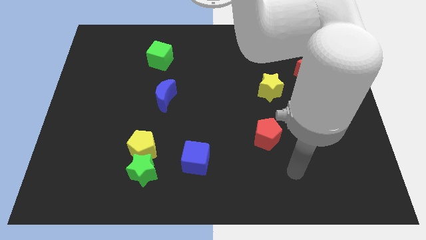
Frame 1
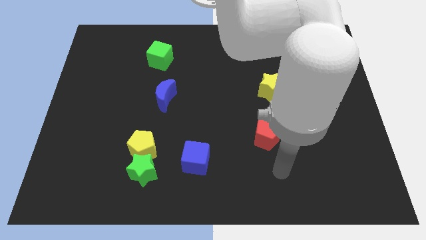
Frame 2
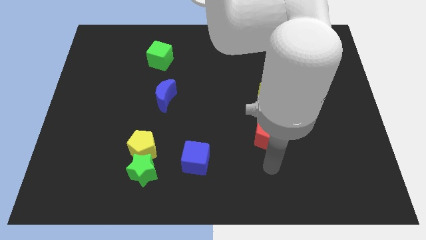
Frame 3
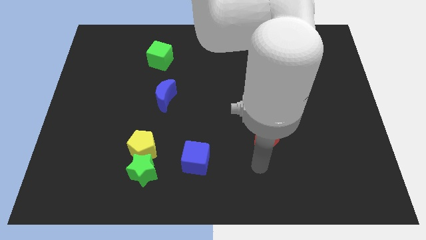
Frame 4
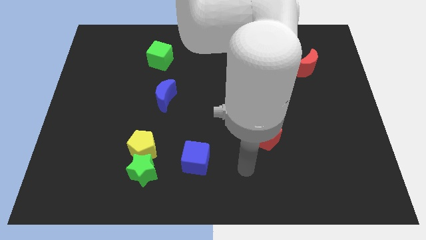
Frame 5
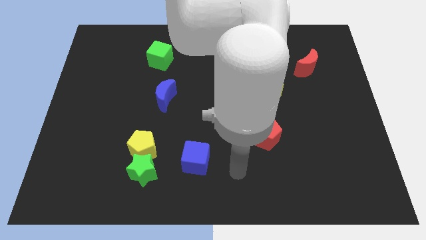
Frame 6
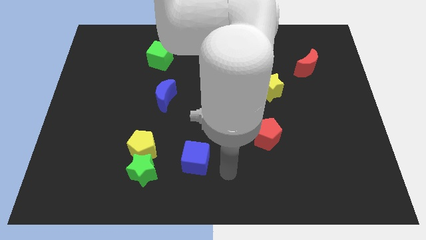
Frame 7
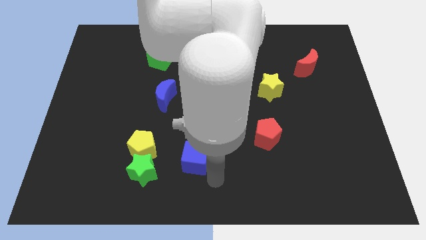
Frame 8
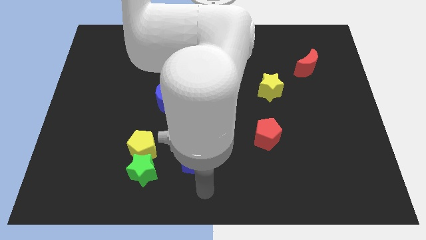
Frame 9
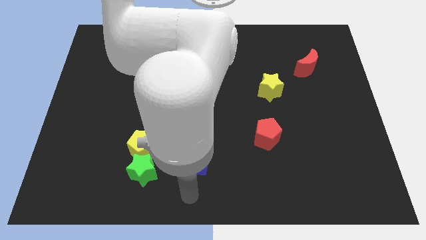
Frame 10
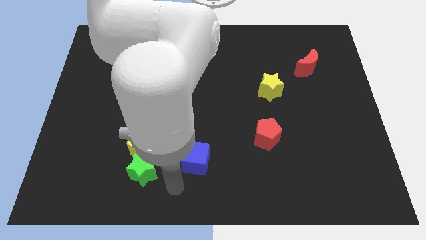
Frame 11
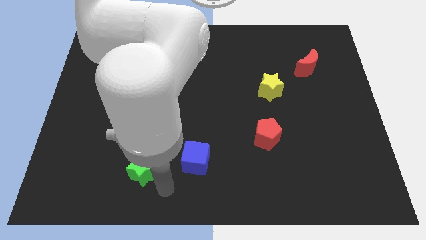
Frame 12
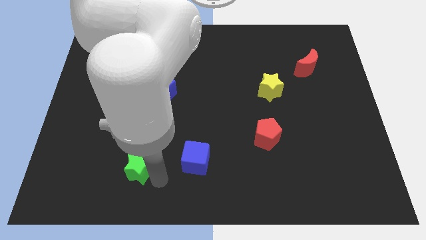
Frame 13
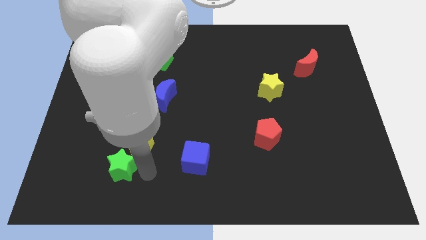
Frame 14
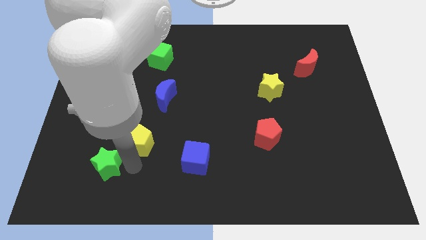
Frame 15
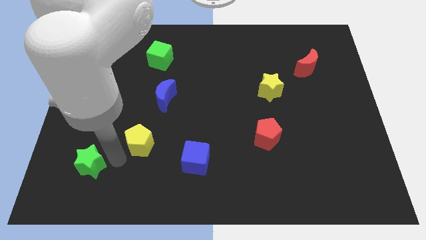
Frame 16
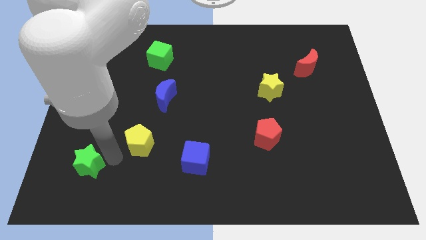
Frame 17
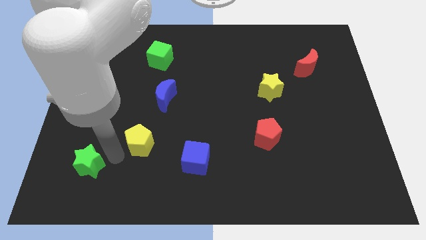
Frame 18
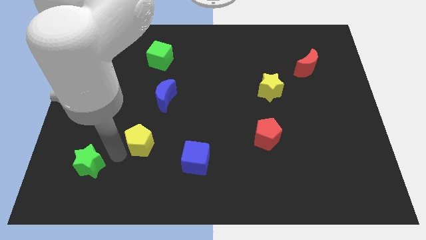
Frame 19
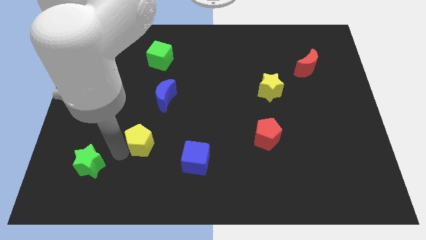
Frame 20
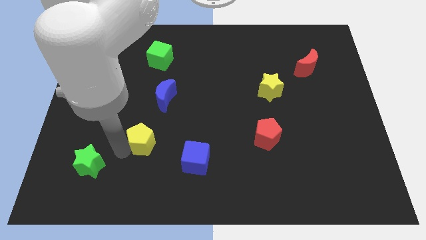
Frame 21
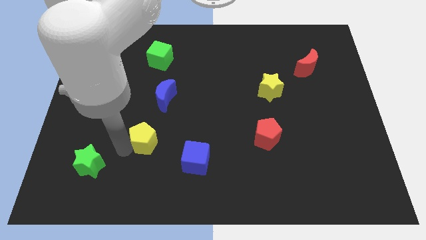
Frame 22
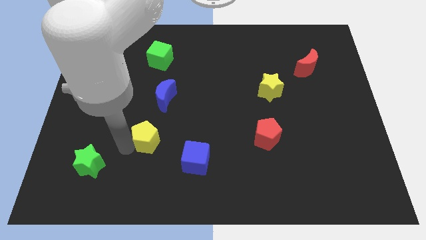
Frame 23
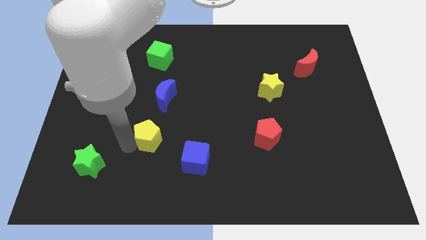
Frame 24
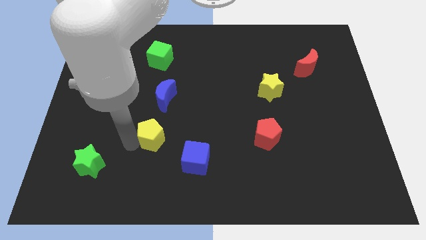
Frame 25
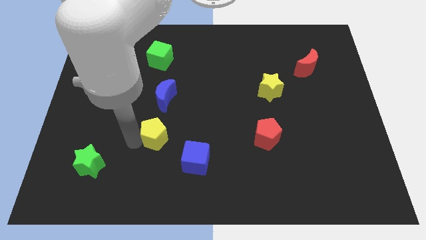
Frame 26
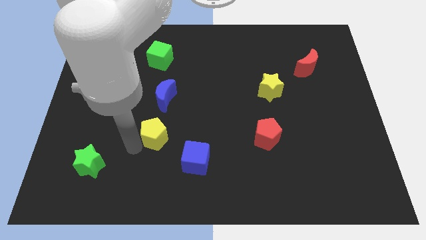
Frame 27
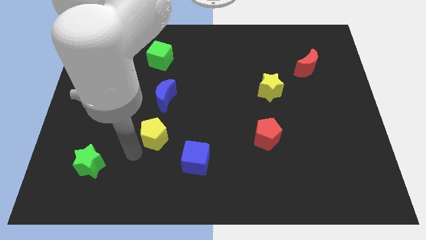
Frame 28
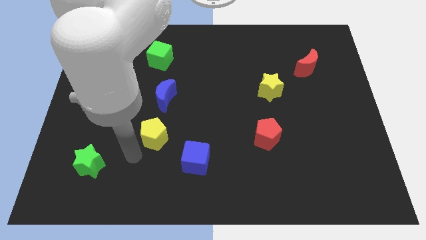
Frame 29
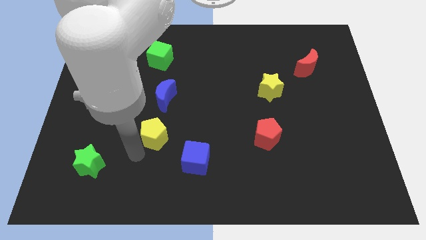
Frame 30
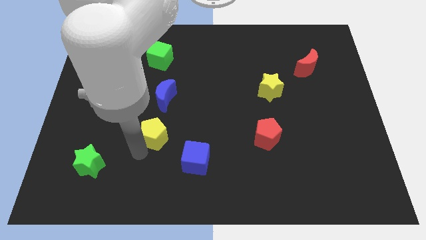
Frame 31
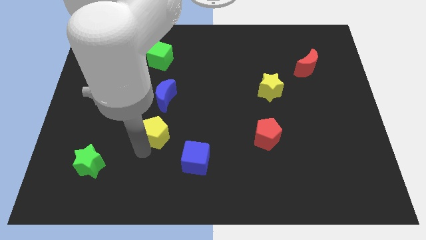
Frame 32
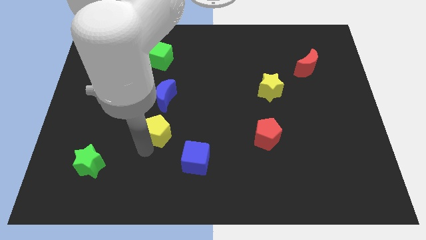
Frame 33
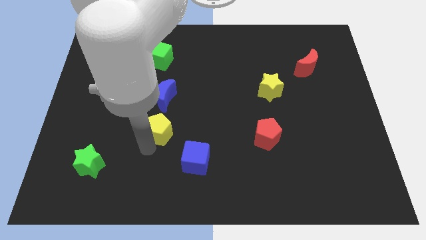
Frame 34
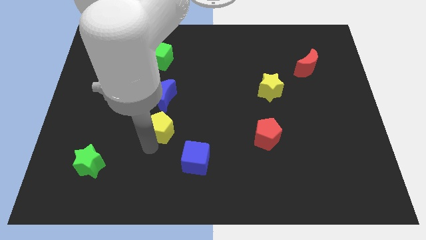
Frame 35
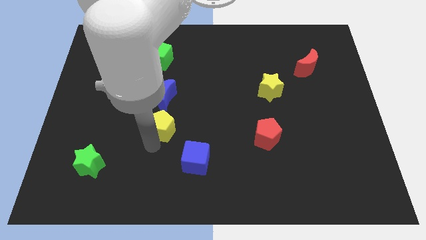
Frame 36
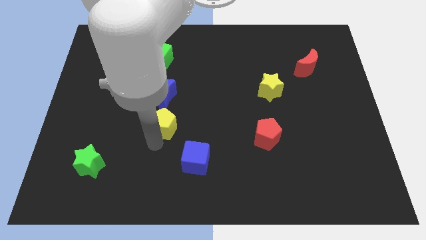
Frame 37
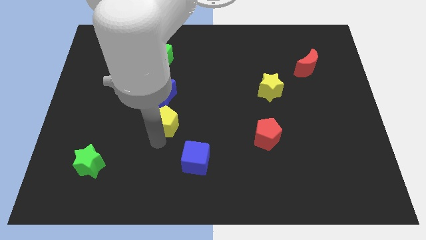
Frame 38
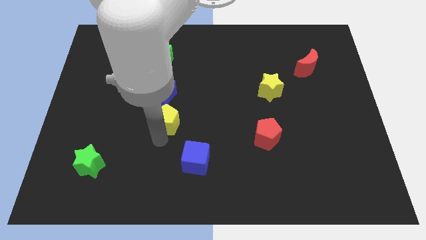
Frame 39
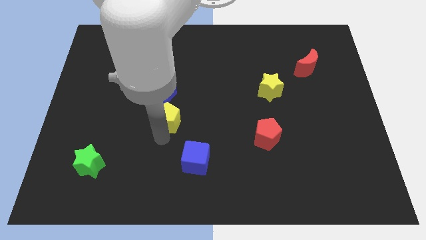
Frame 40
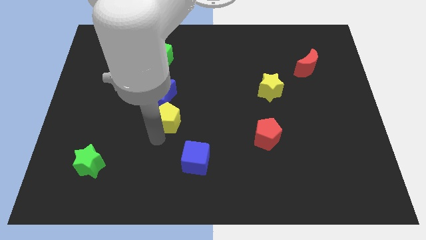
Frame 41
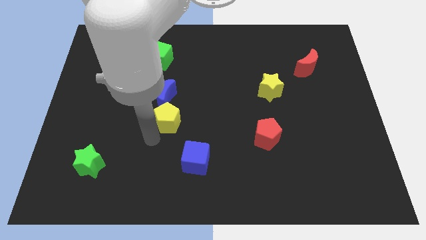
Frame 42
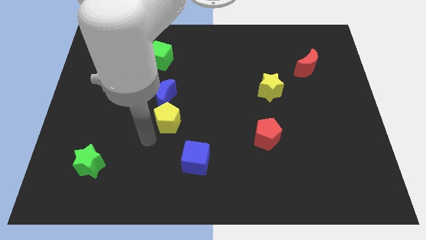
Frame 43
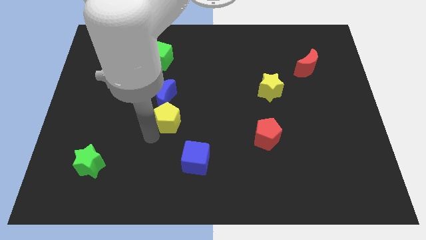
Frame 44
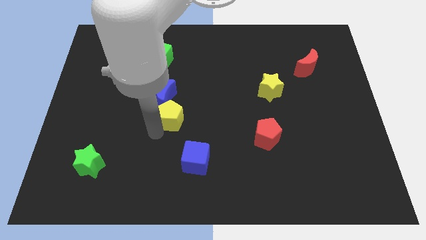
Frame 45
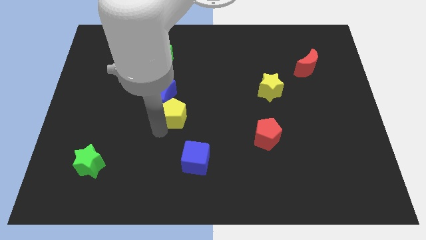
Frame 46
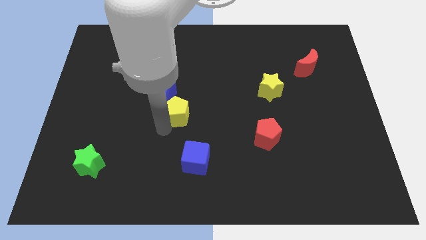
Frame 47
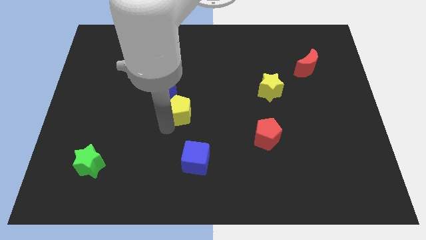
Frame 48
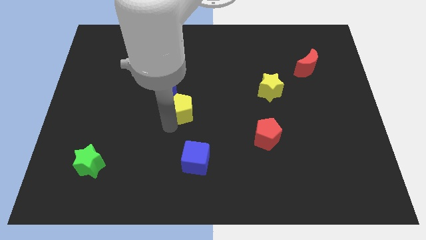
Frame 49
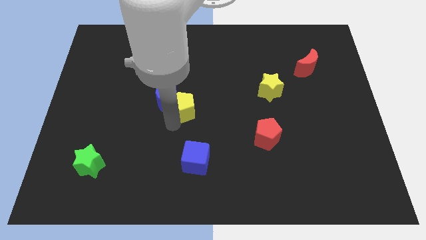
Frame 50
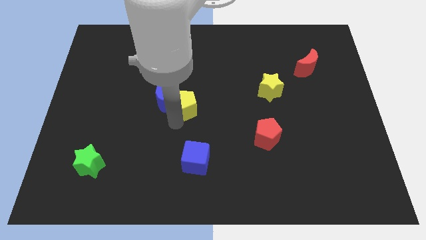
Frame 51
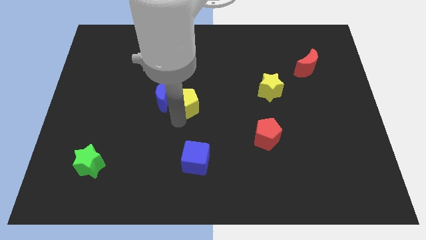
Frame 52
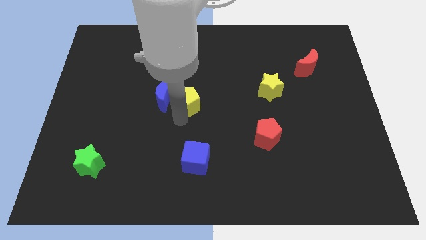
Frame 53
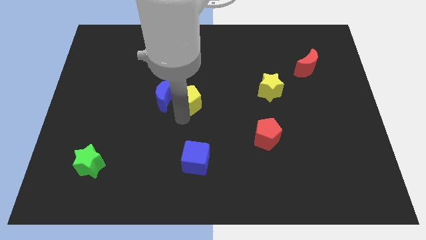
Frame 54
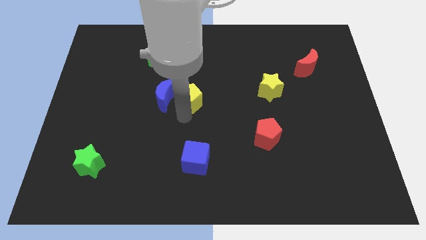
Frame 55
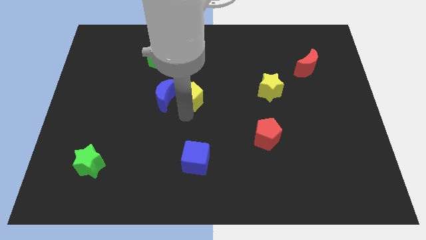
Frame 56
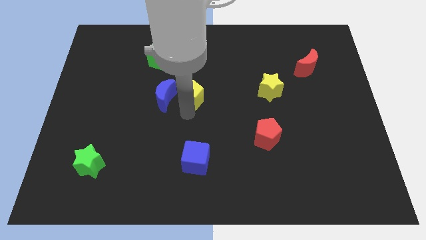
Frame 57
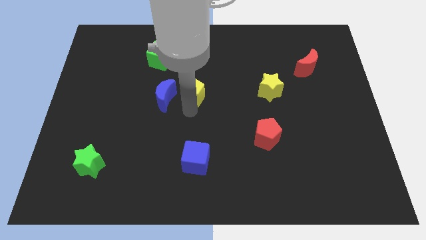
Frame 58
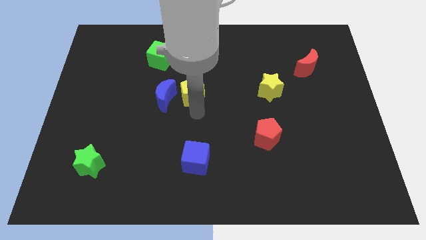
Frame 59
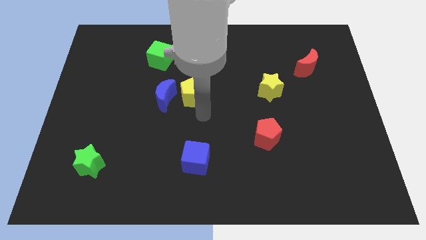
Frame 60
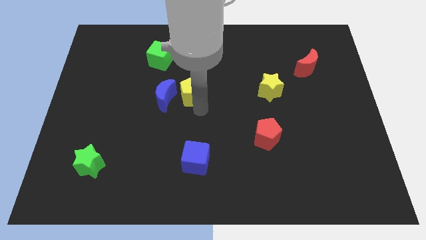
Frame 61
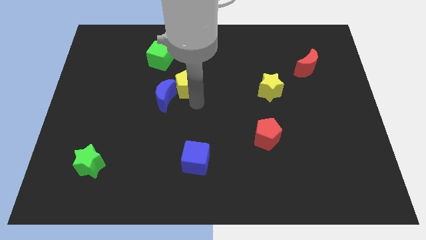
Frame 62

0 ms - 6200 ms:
put the yellow pentagon to the bottom right side of the green cube

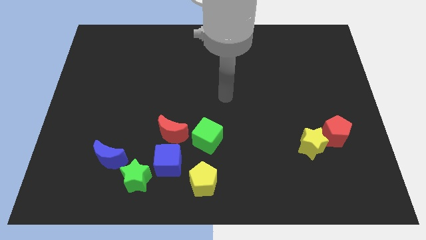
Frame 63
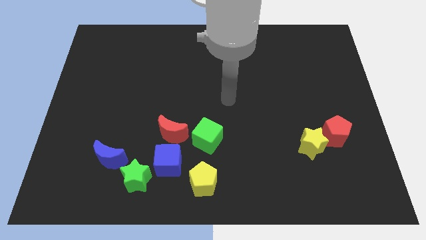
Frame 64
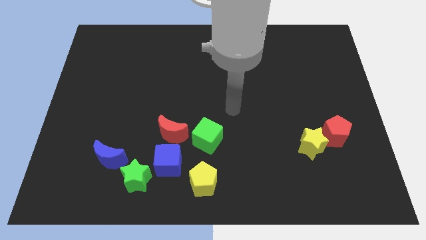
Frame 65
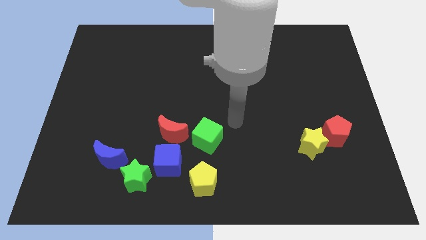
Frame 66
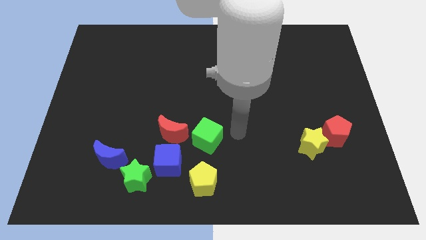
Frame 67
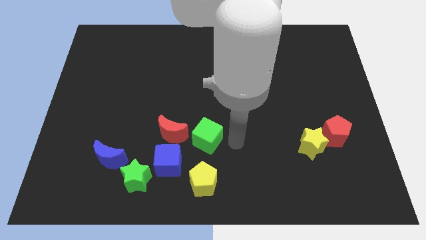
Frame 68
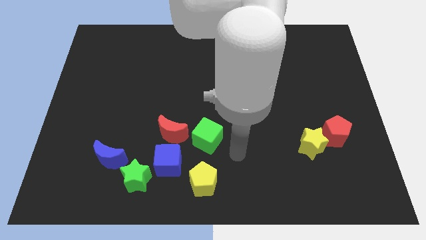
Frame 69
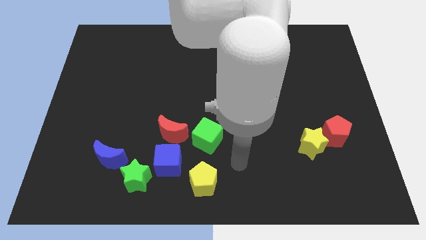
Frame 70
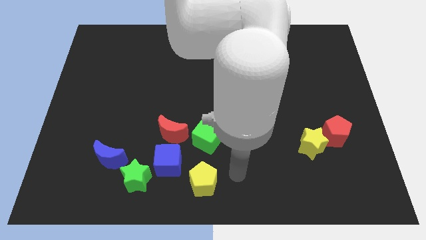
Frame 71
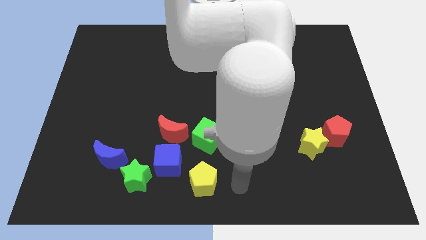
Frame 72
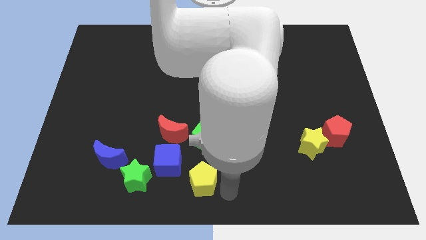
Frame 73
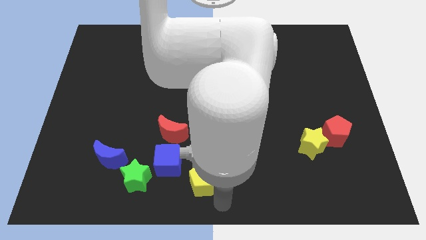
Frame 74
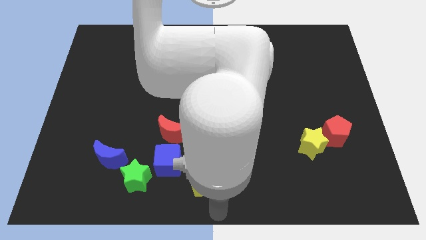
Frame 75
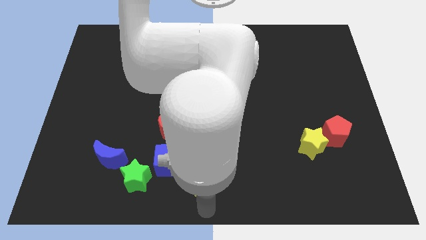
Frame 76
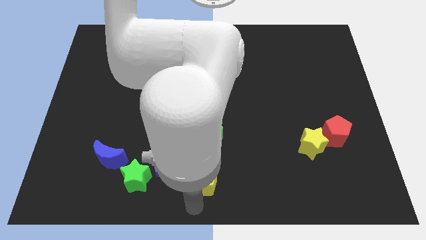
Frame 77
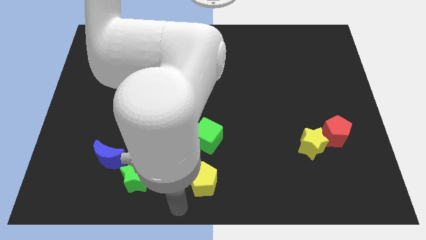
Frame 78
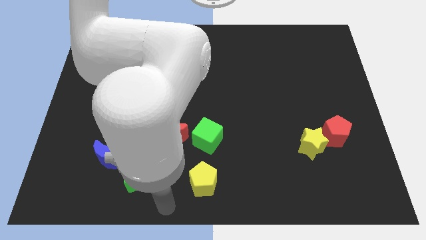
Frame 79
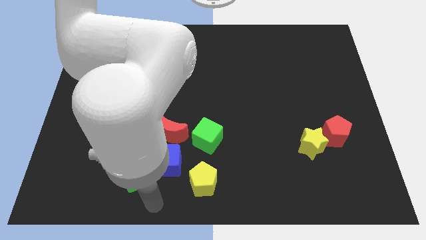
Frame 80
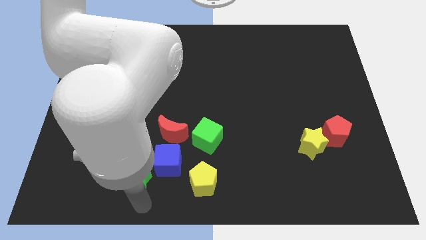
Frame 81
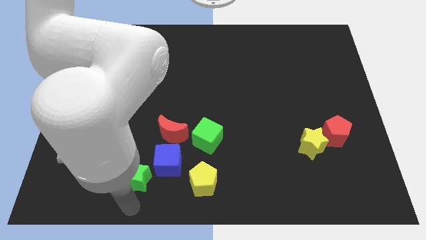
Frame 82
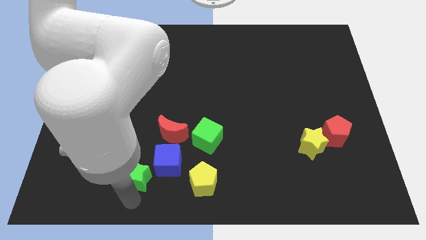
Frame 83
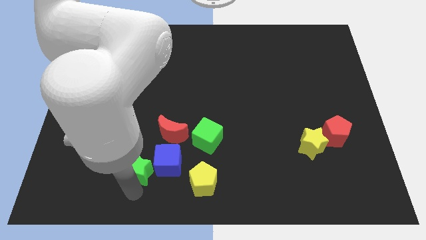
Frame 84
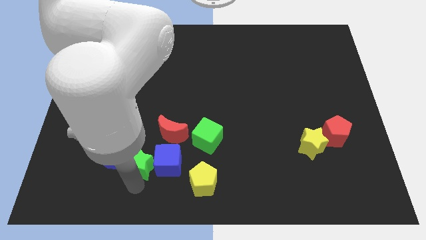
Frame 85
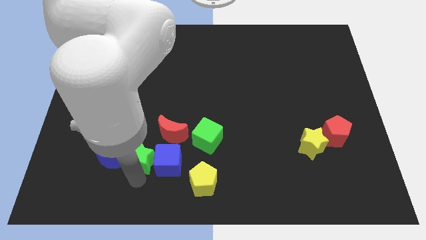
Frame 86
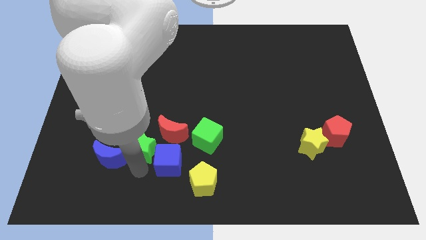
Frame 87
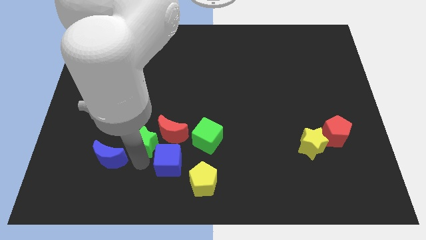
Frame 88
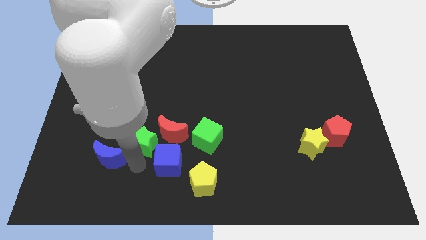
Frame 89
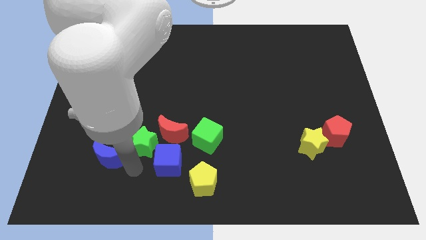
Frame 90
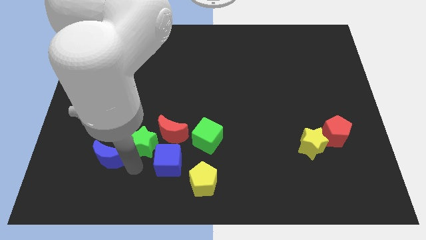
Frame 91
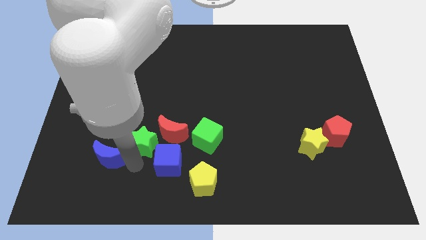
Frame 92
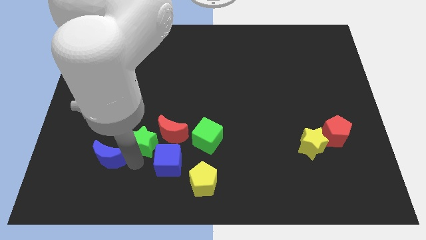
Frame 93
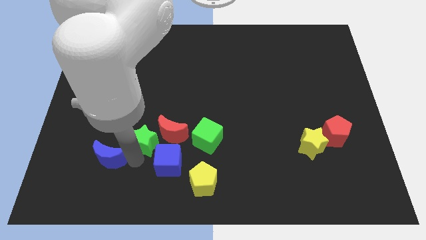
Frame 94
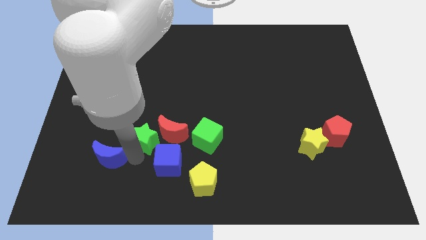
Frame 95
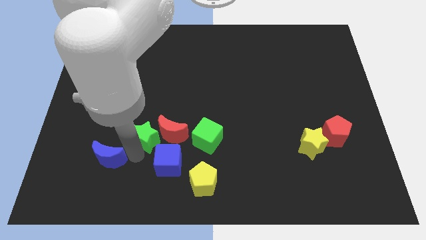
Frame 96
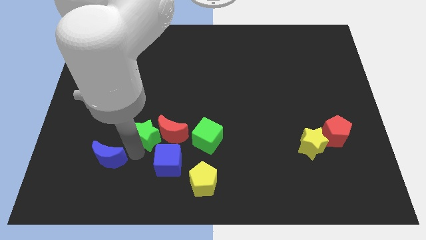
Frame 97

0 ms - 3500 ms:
move the green star above the blue cube
